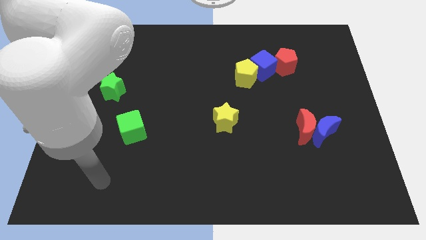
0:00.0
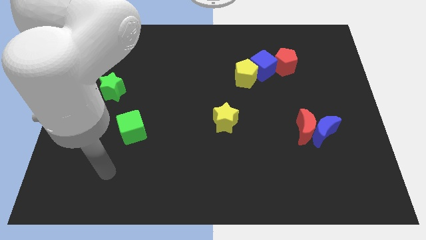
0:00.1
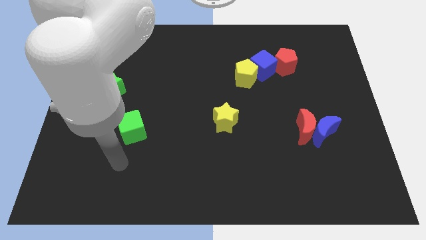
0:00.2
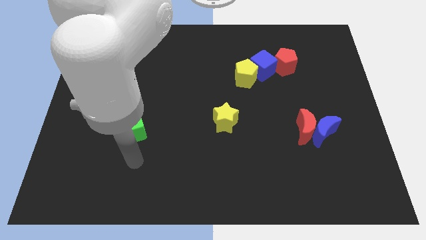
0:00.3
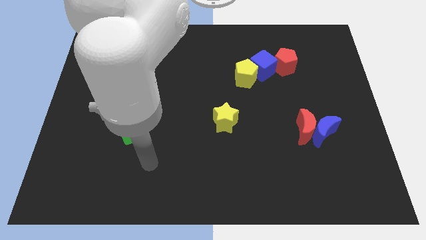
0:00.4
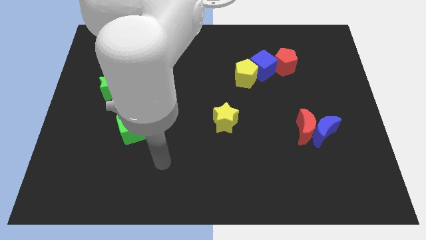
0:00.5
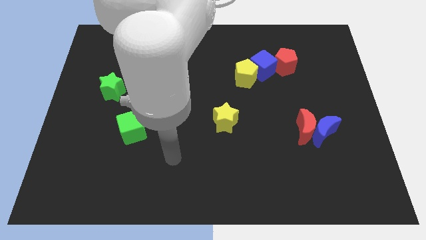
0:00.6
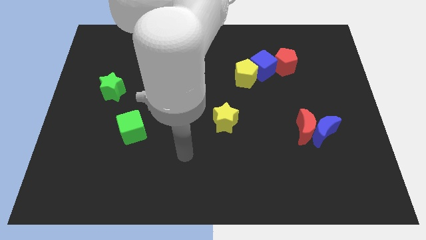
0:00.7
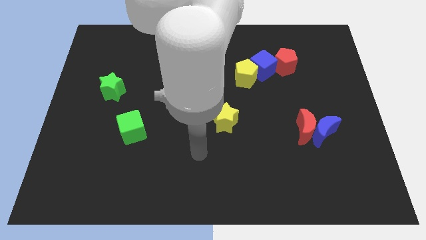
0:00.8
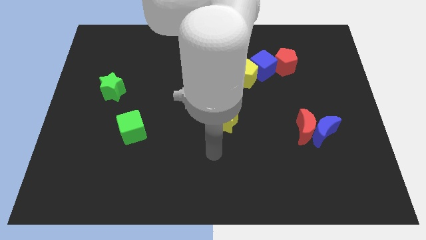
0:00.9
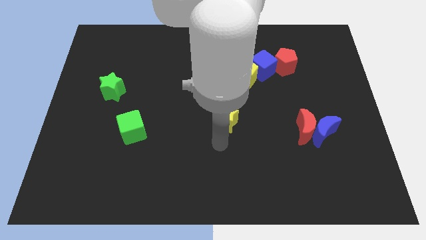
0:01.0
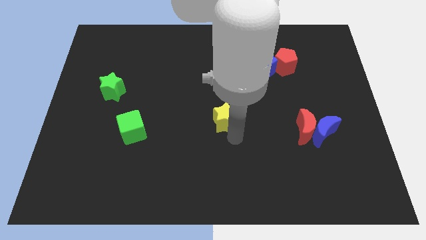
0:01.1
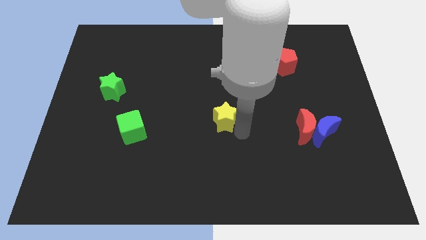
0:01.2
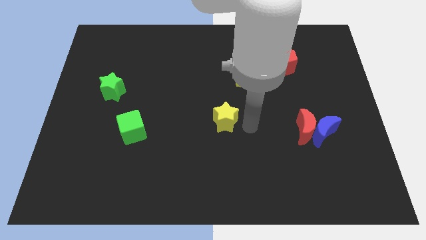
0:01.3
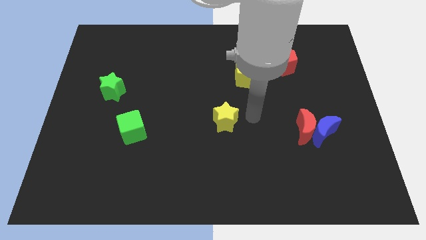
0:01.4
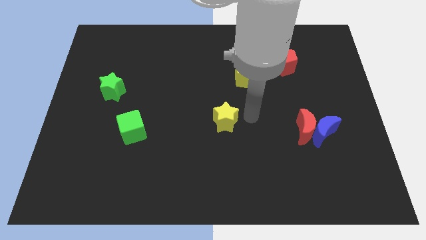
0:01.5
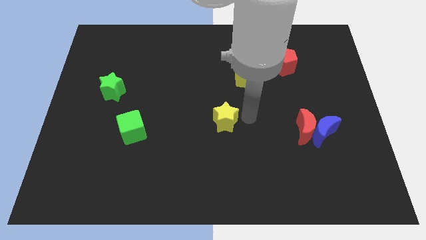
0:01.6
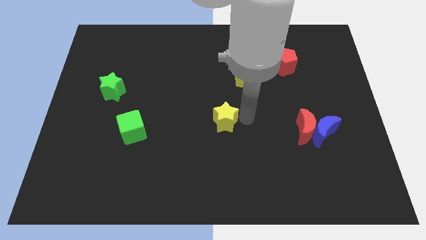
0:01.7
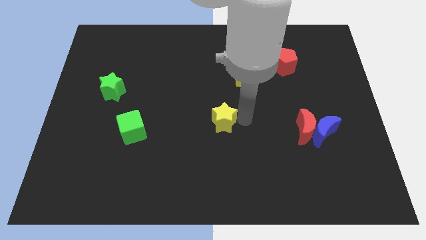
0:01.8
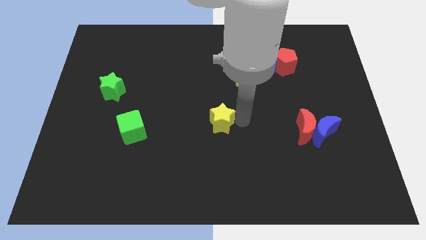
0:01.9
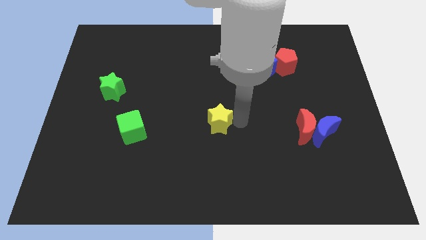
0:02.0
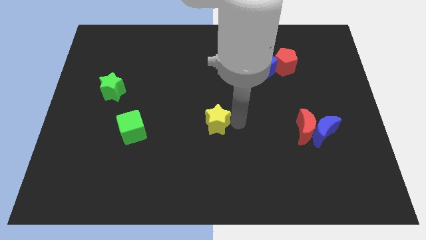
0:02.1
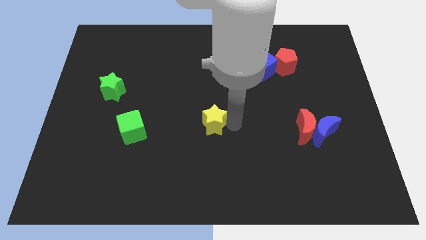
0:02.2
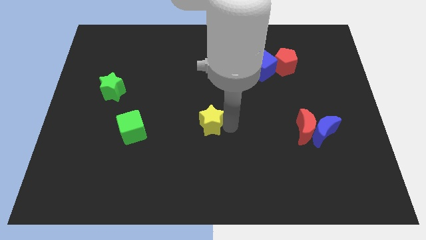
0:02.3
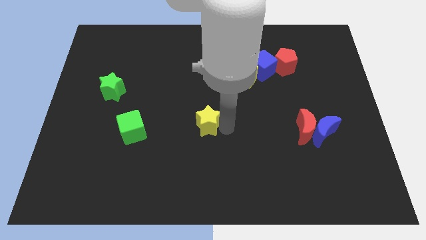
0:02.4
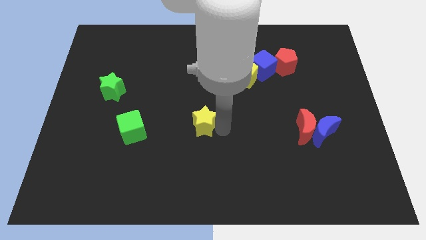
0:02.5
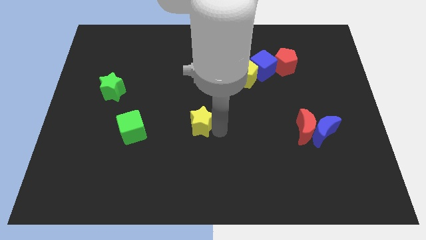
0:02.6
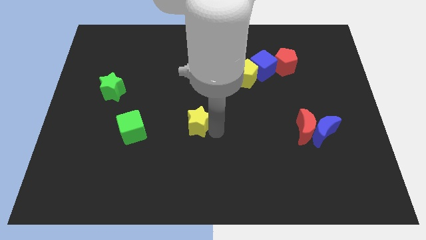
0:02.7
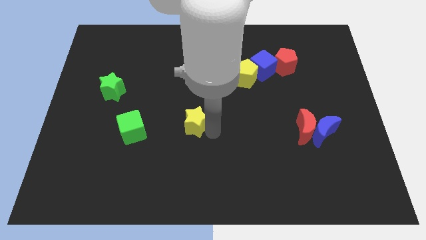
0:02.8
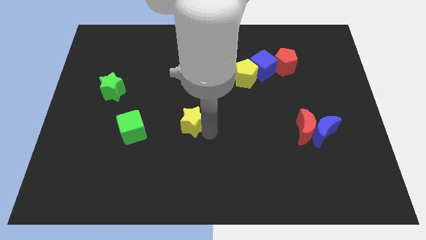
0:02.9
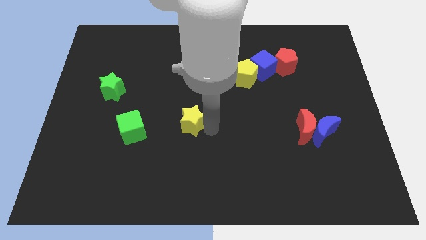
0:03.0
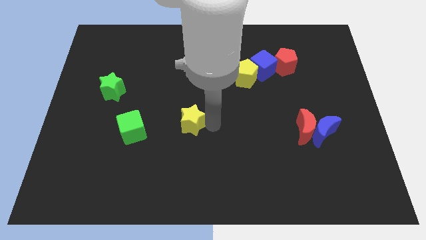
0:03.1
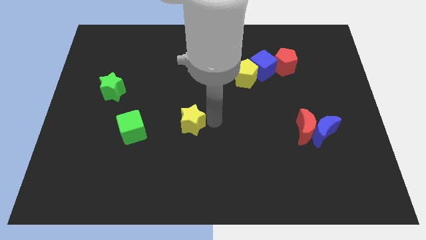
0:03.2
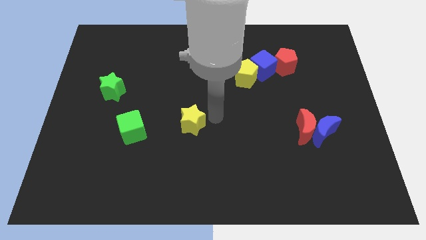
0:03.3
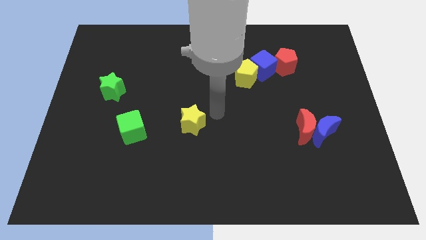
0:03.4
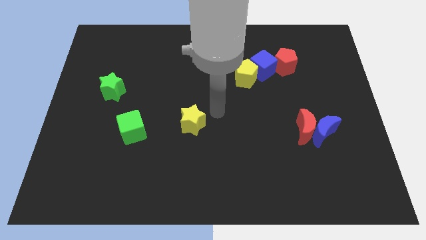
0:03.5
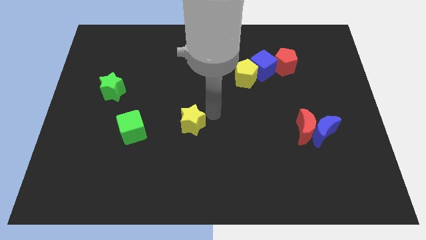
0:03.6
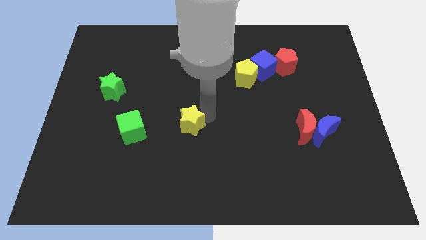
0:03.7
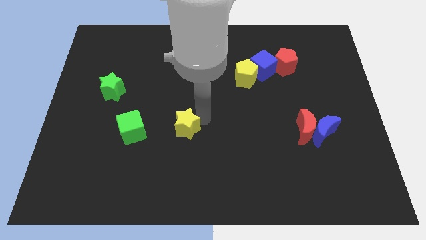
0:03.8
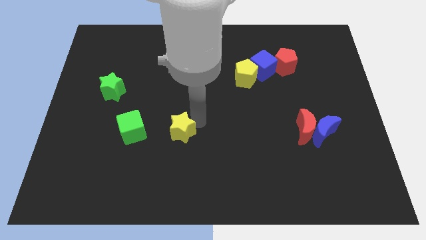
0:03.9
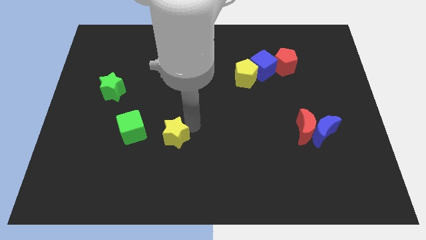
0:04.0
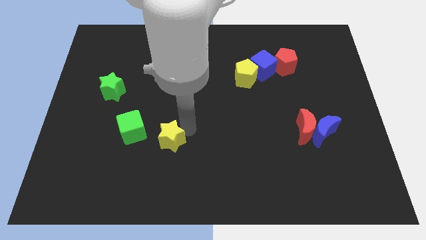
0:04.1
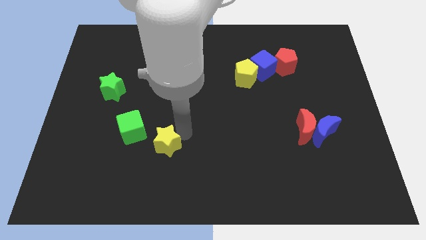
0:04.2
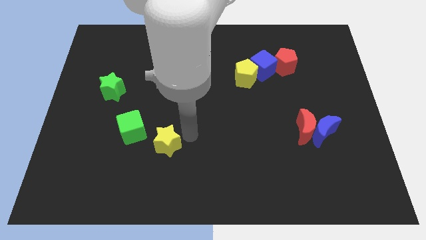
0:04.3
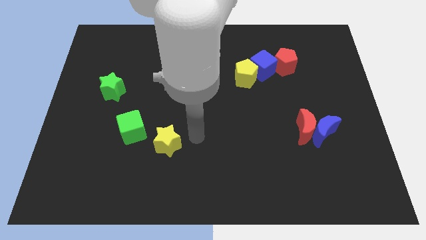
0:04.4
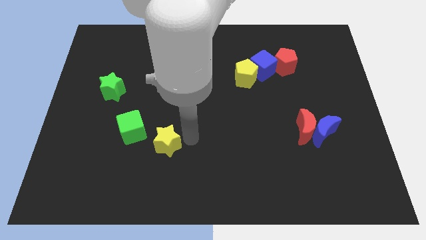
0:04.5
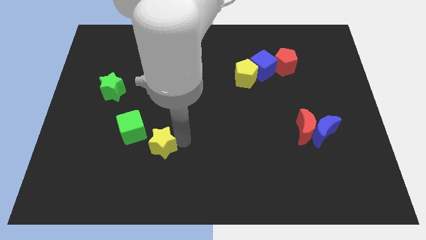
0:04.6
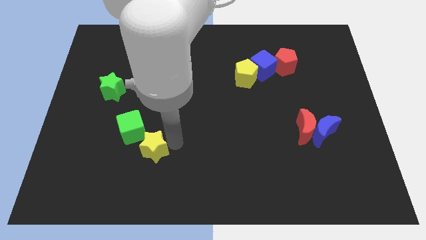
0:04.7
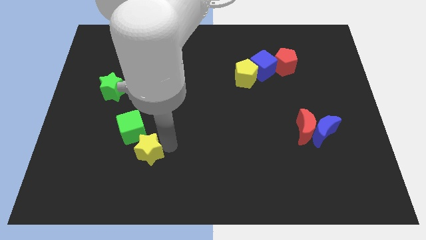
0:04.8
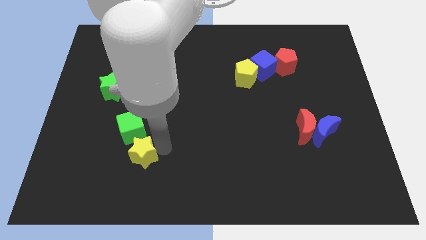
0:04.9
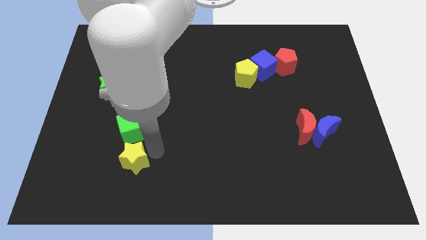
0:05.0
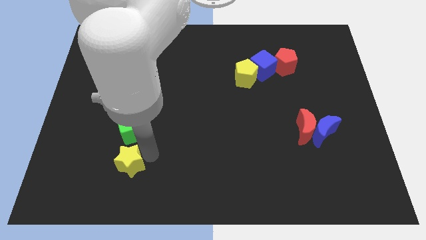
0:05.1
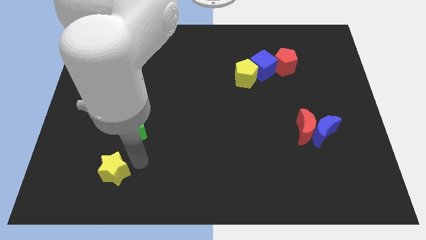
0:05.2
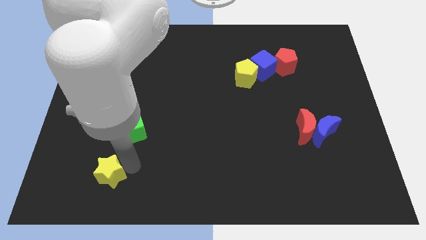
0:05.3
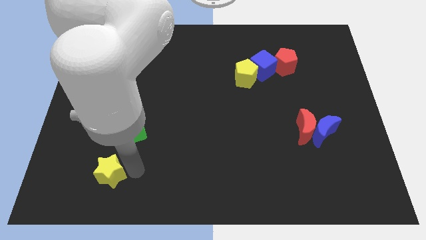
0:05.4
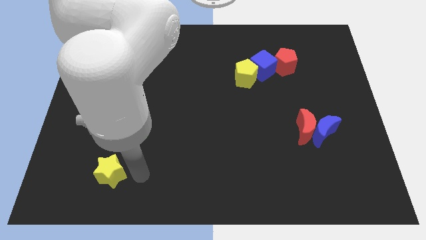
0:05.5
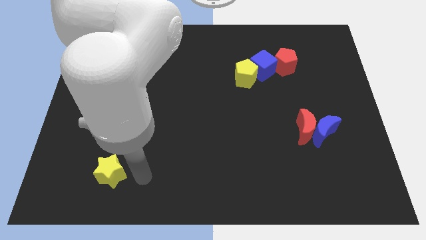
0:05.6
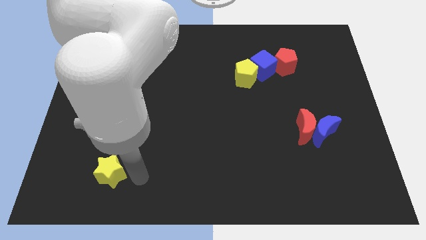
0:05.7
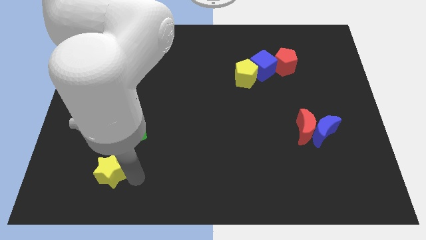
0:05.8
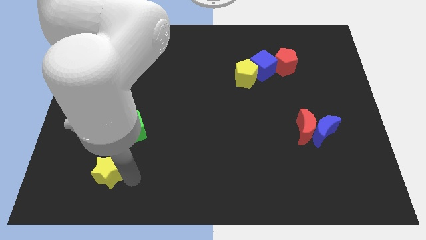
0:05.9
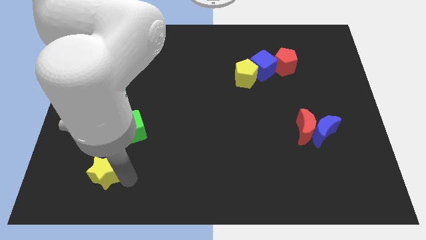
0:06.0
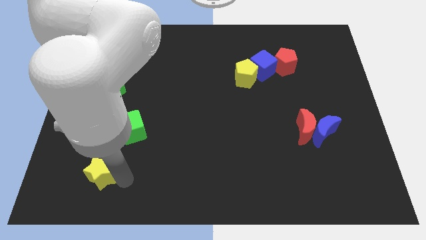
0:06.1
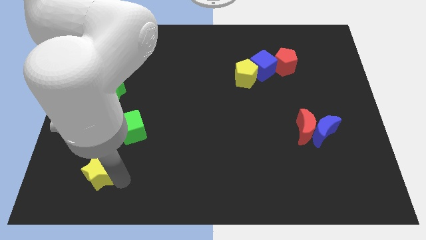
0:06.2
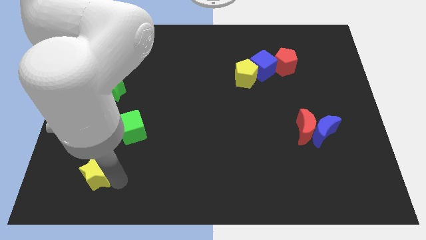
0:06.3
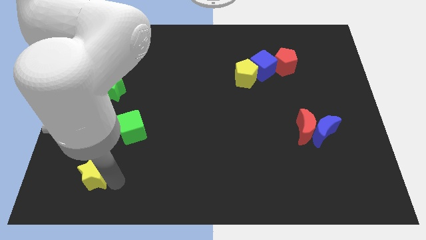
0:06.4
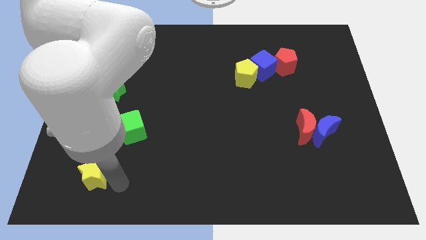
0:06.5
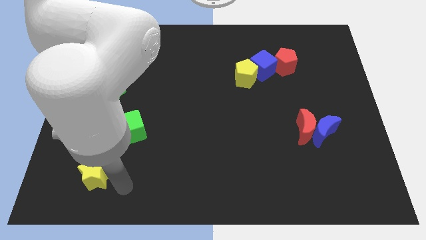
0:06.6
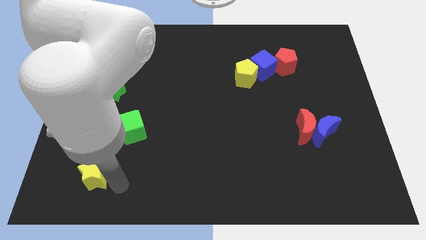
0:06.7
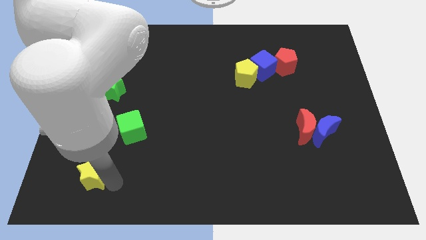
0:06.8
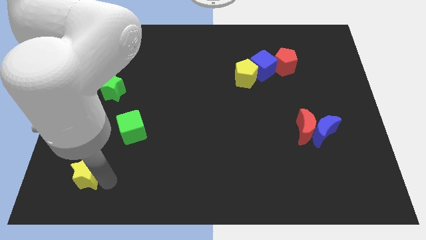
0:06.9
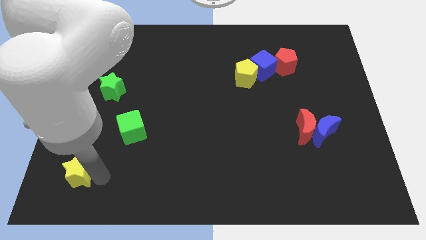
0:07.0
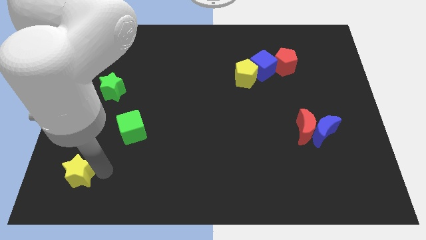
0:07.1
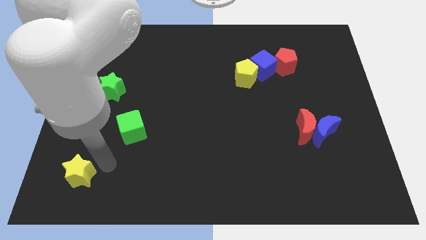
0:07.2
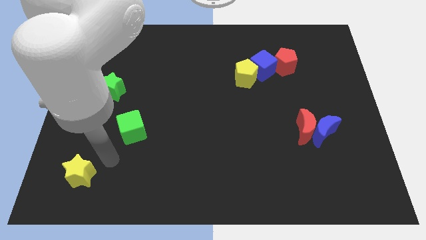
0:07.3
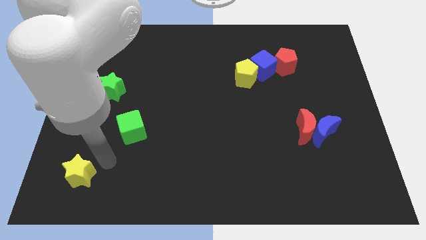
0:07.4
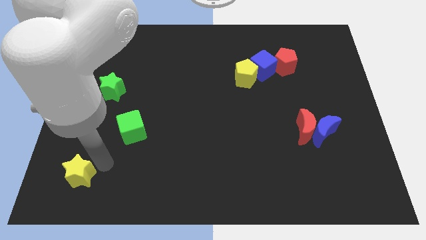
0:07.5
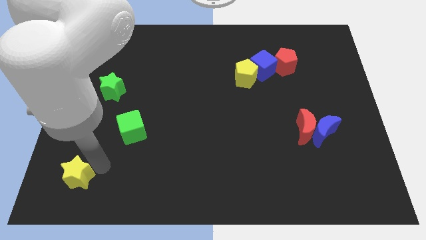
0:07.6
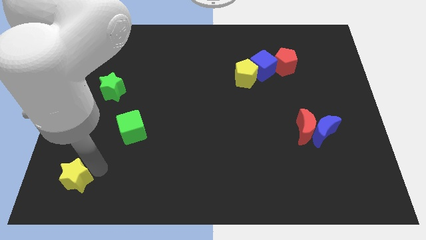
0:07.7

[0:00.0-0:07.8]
push the yellow star to the bottom left of the board
